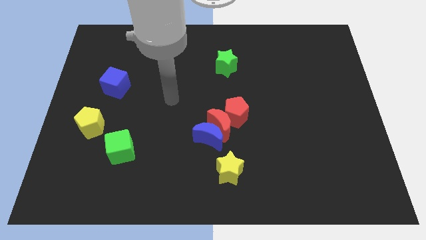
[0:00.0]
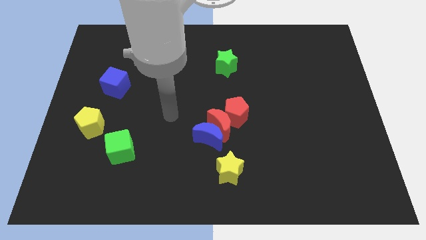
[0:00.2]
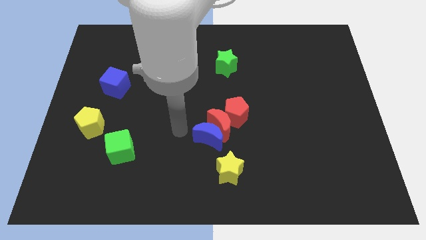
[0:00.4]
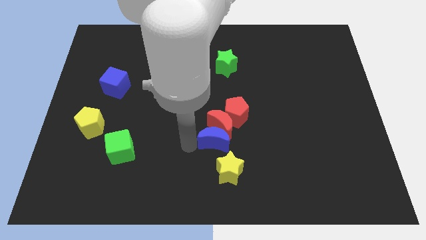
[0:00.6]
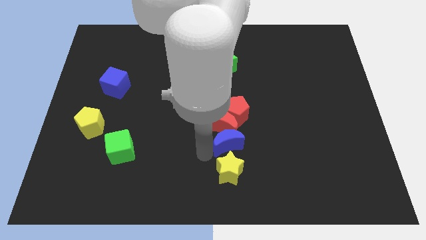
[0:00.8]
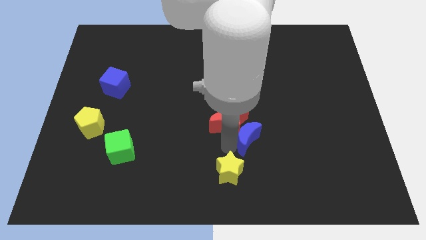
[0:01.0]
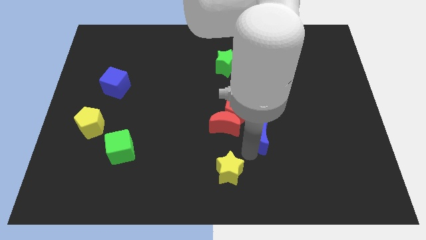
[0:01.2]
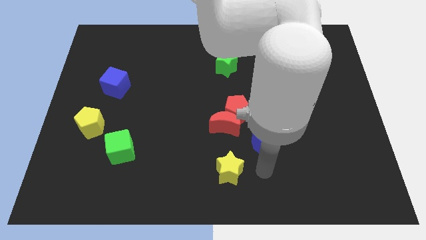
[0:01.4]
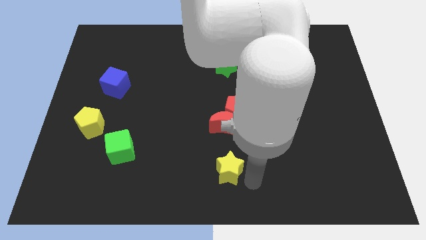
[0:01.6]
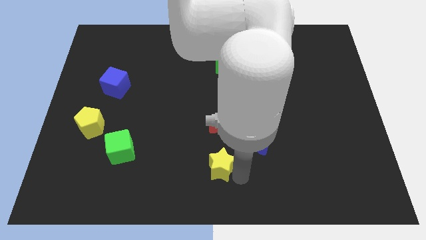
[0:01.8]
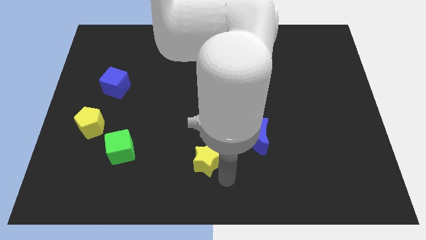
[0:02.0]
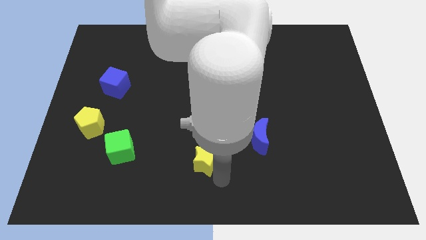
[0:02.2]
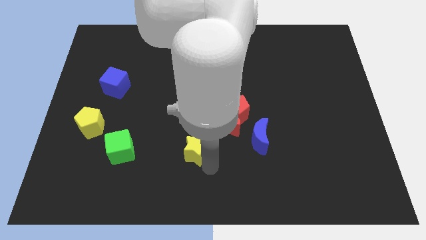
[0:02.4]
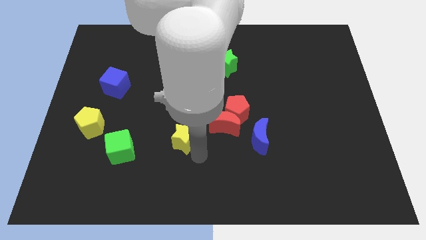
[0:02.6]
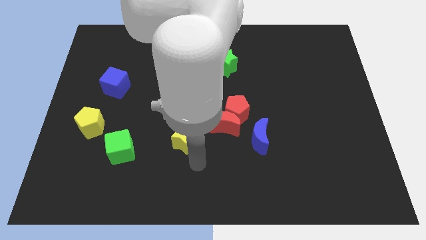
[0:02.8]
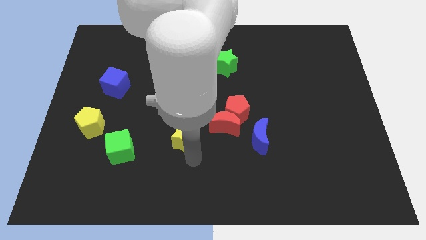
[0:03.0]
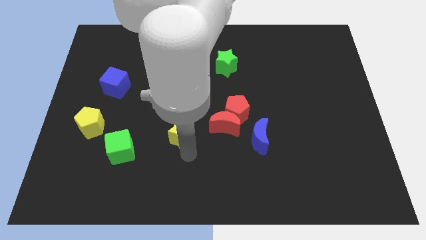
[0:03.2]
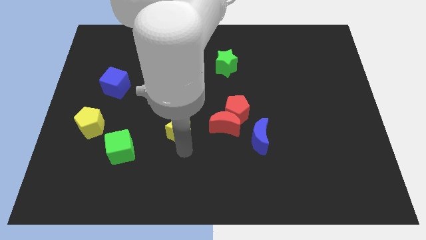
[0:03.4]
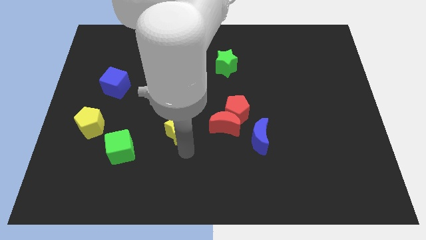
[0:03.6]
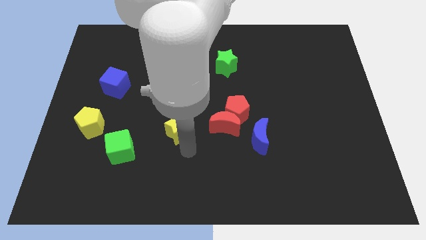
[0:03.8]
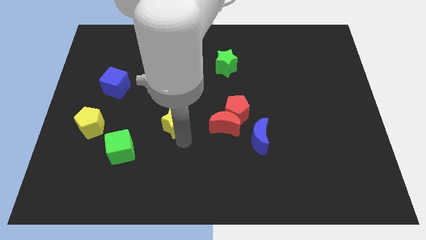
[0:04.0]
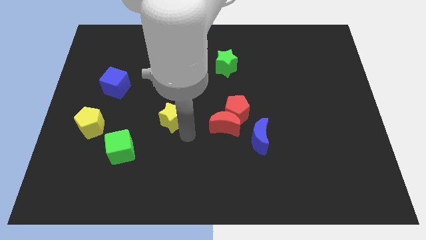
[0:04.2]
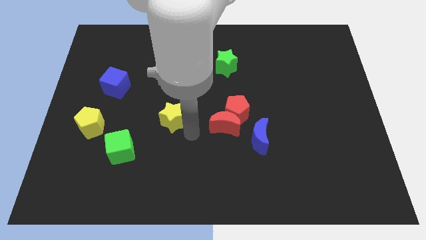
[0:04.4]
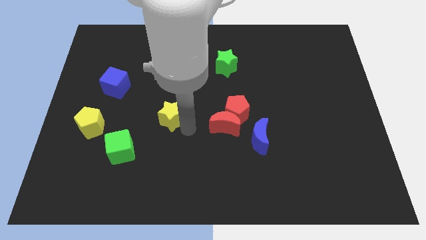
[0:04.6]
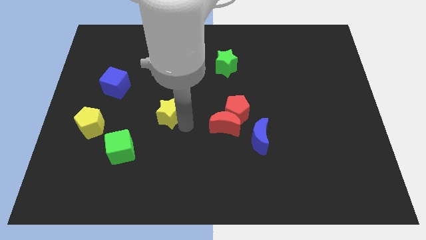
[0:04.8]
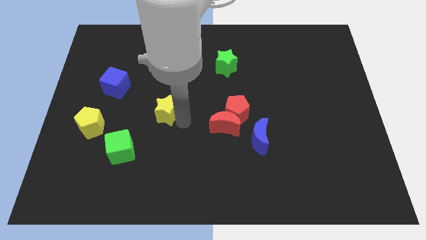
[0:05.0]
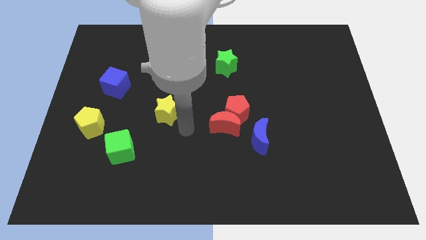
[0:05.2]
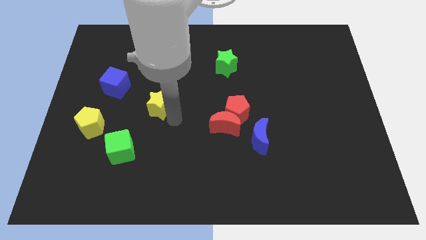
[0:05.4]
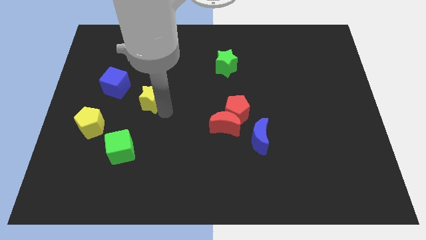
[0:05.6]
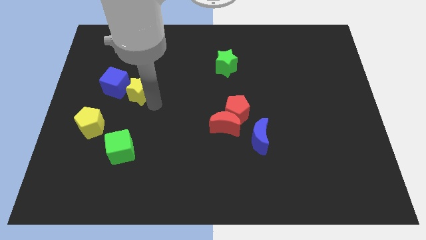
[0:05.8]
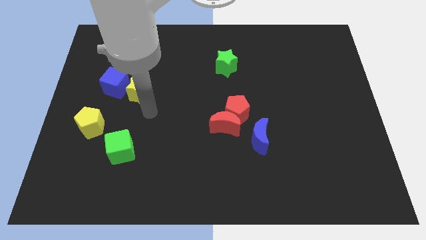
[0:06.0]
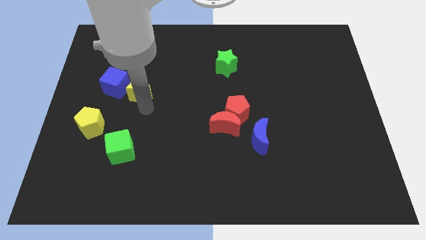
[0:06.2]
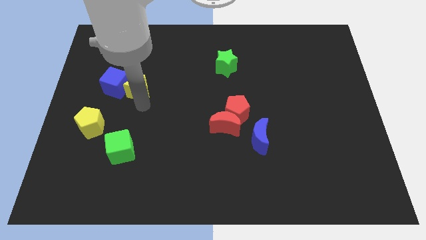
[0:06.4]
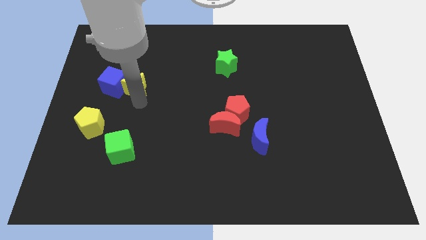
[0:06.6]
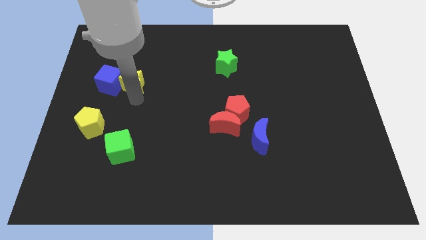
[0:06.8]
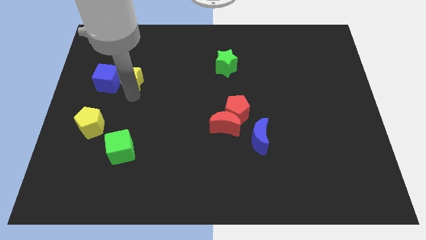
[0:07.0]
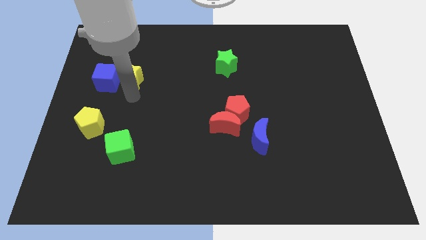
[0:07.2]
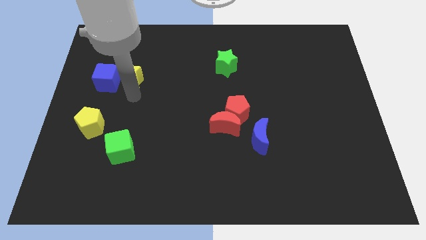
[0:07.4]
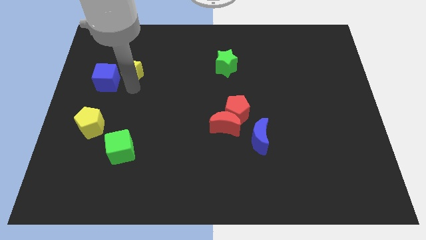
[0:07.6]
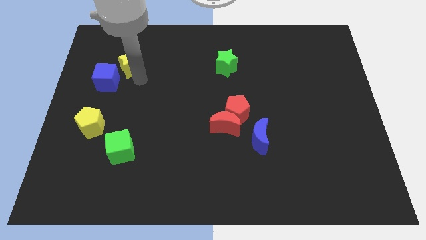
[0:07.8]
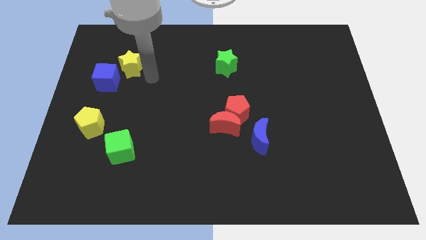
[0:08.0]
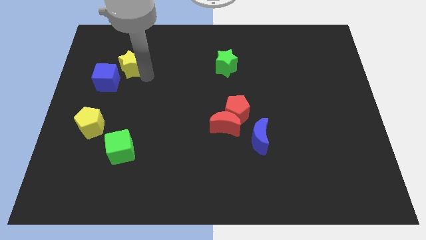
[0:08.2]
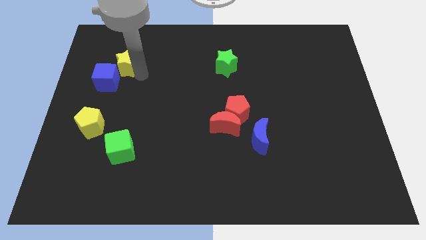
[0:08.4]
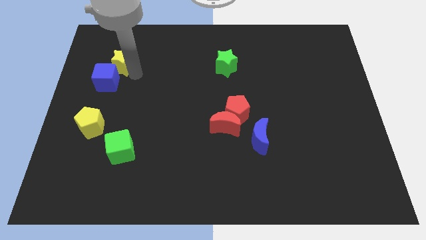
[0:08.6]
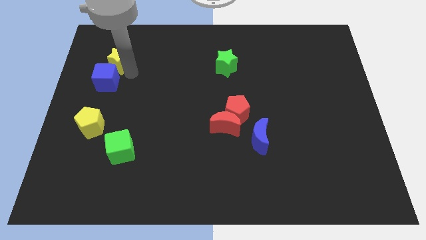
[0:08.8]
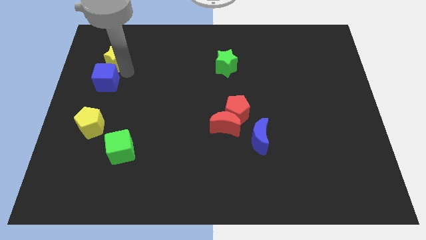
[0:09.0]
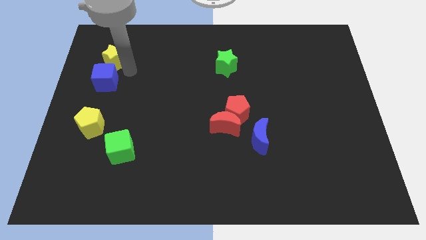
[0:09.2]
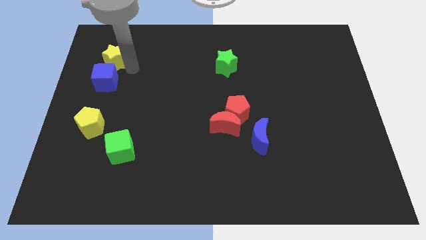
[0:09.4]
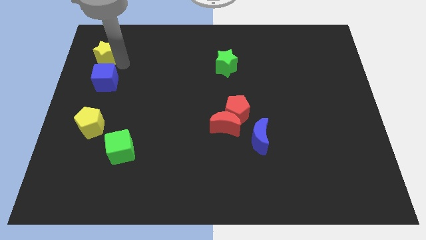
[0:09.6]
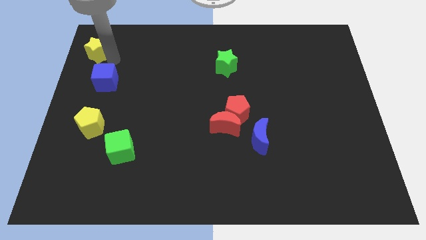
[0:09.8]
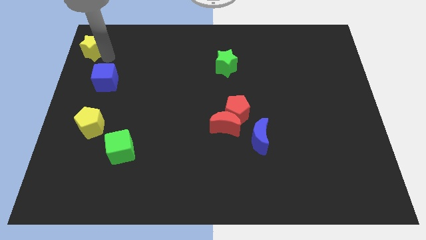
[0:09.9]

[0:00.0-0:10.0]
slide the yellow star to the top left of the board

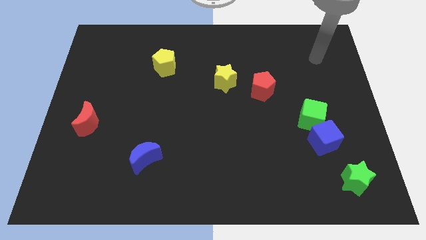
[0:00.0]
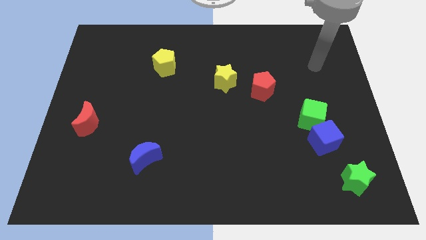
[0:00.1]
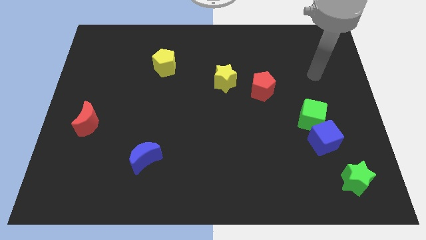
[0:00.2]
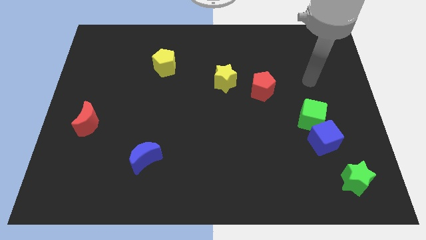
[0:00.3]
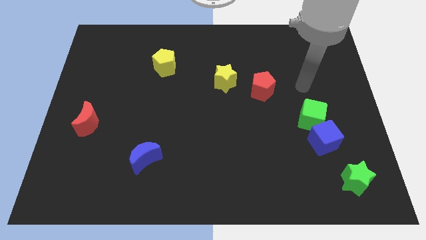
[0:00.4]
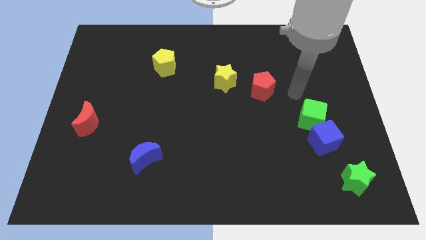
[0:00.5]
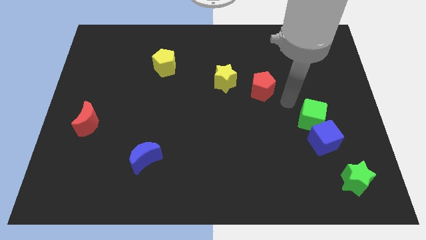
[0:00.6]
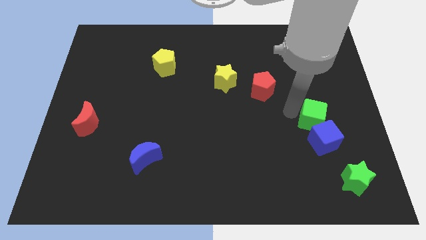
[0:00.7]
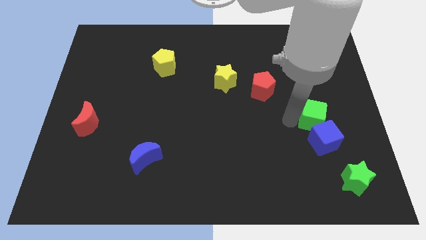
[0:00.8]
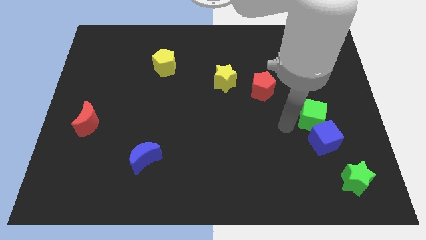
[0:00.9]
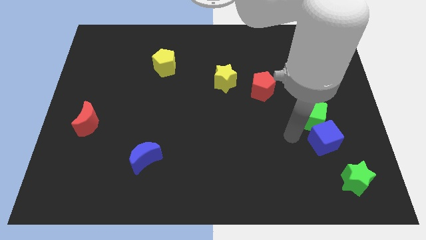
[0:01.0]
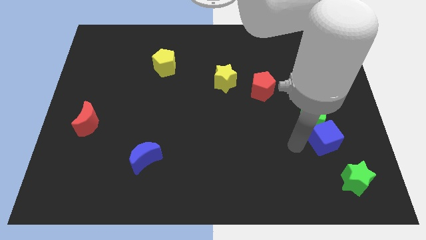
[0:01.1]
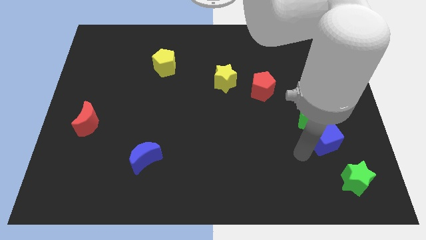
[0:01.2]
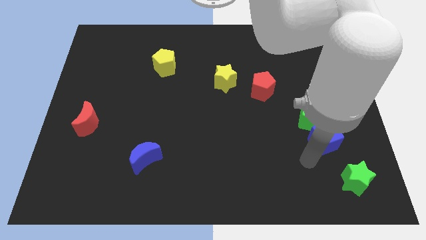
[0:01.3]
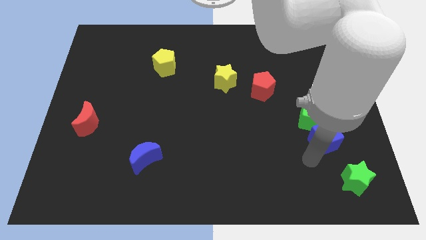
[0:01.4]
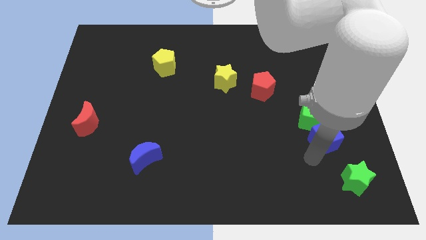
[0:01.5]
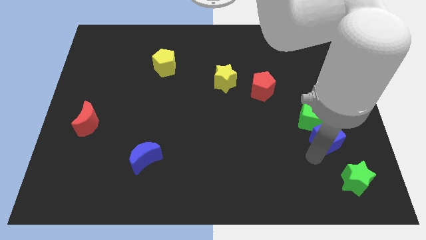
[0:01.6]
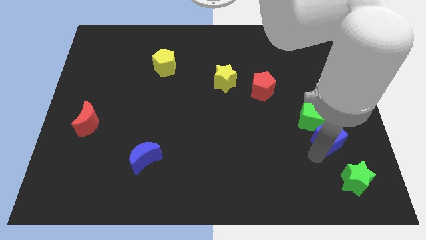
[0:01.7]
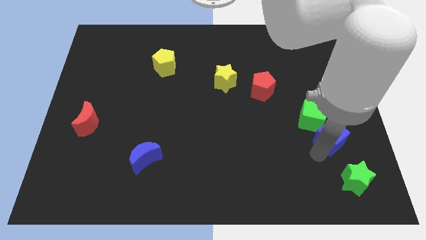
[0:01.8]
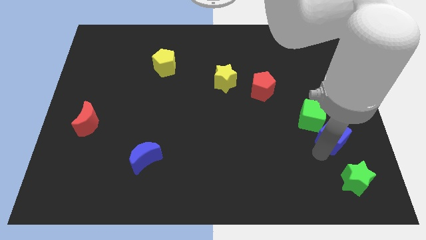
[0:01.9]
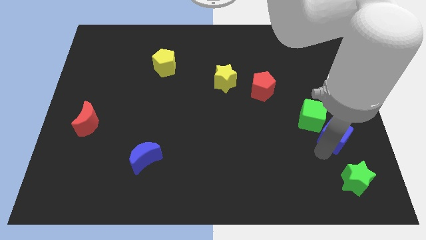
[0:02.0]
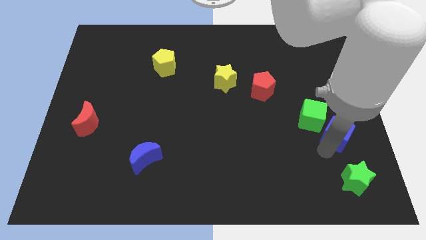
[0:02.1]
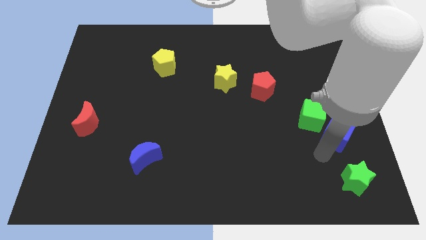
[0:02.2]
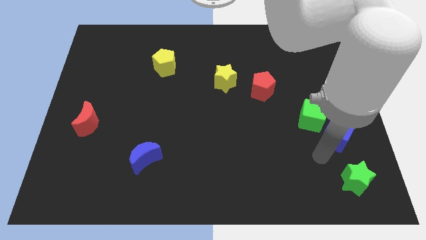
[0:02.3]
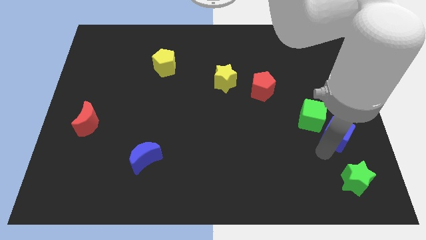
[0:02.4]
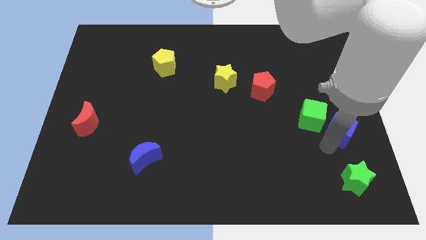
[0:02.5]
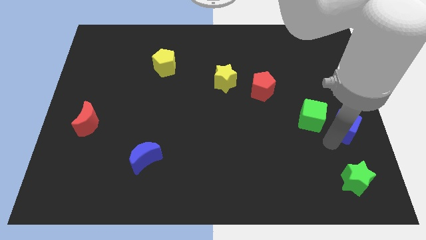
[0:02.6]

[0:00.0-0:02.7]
slide the blue cube to the right side of the board
